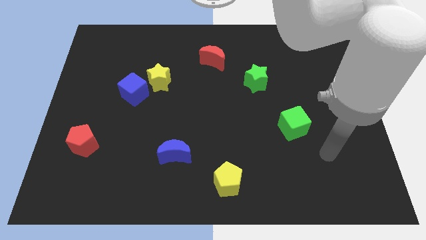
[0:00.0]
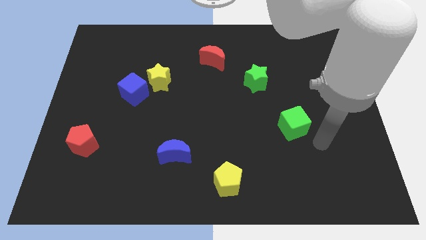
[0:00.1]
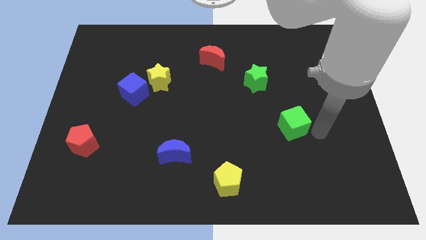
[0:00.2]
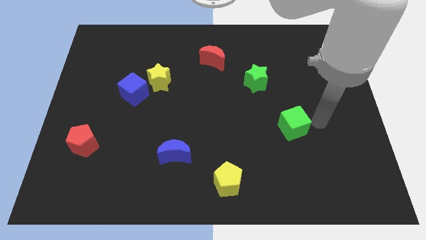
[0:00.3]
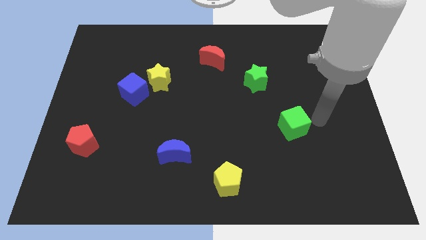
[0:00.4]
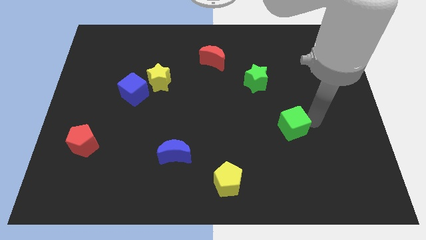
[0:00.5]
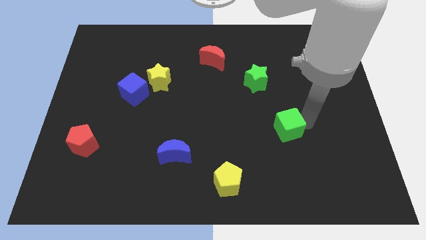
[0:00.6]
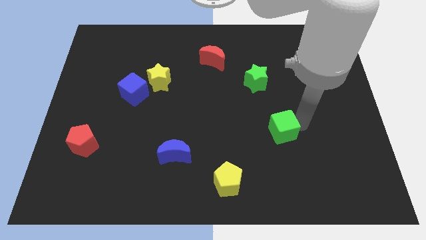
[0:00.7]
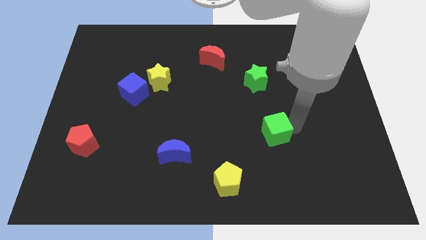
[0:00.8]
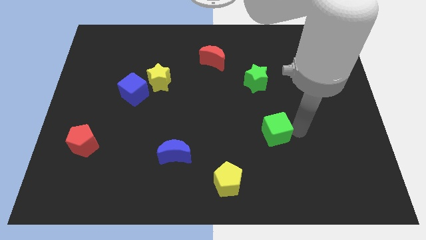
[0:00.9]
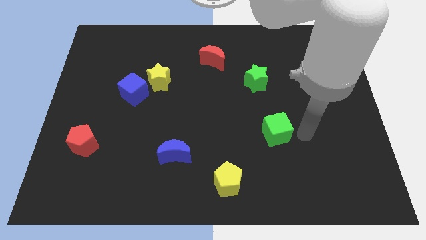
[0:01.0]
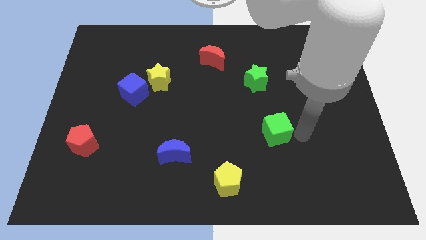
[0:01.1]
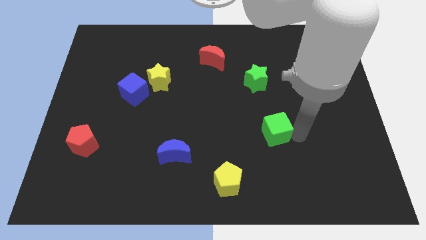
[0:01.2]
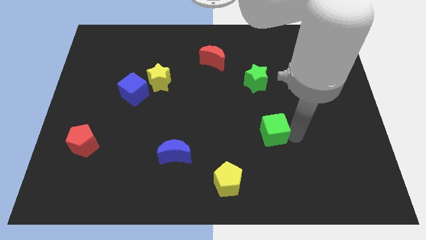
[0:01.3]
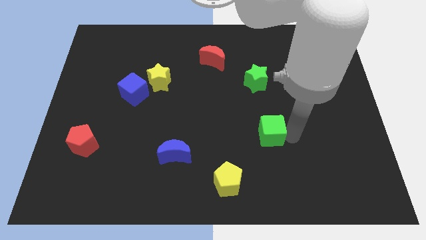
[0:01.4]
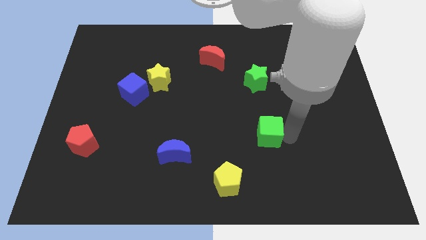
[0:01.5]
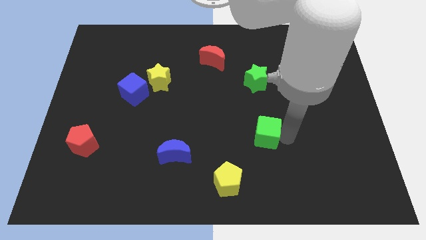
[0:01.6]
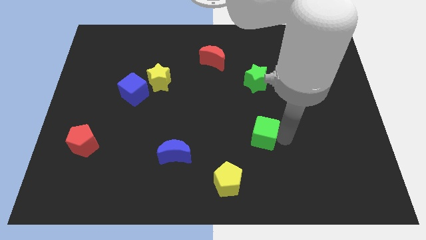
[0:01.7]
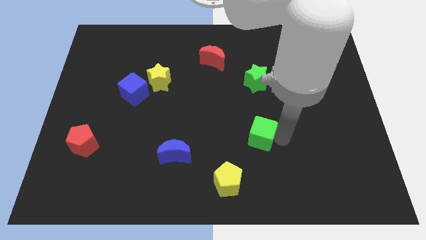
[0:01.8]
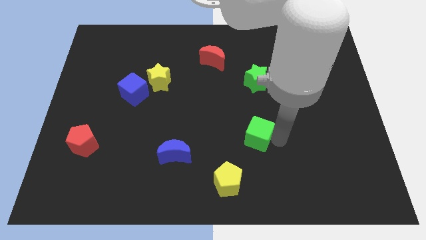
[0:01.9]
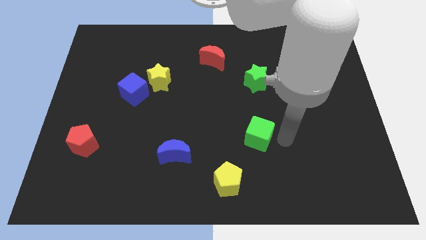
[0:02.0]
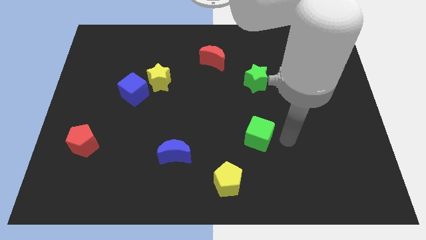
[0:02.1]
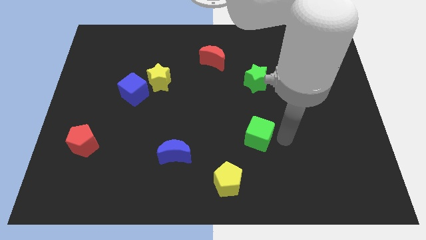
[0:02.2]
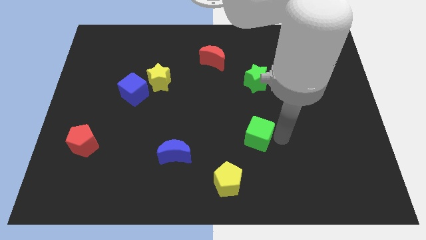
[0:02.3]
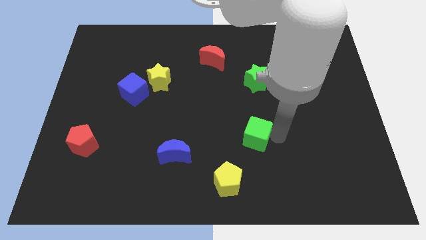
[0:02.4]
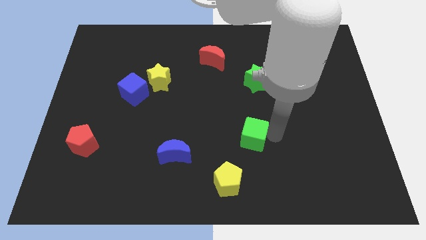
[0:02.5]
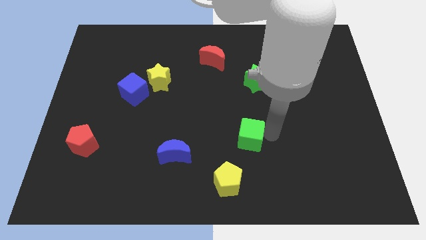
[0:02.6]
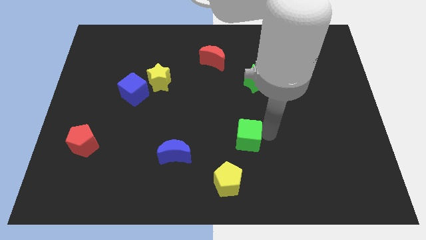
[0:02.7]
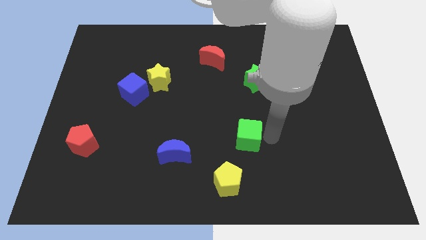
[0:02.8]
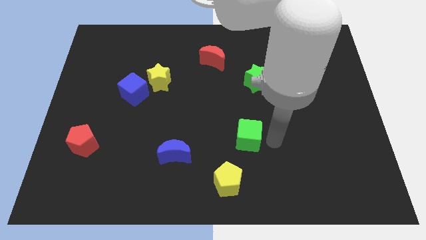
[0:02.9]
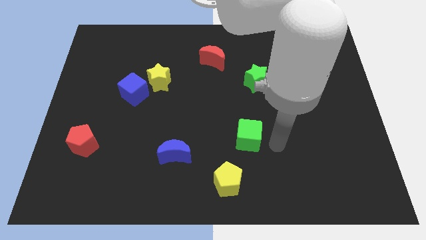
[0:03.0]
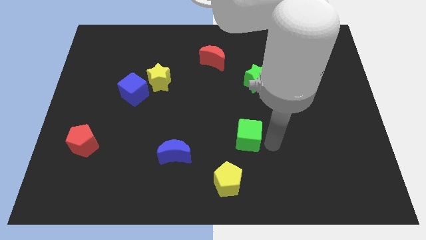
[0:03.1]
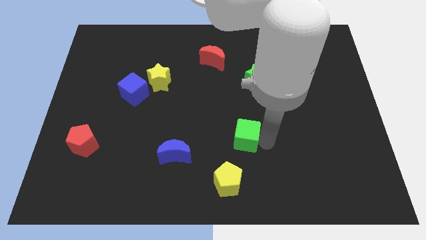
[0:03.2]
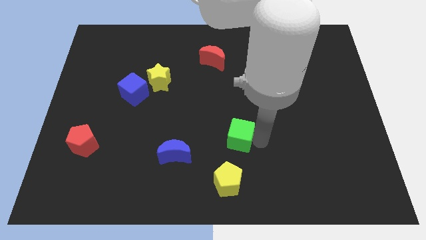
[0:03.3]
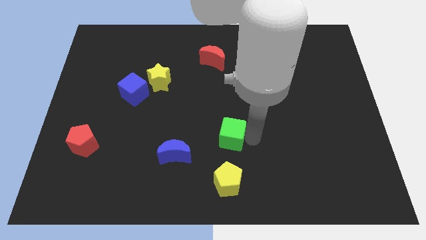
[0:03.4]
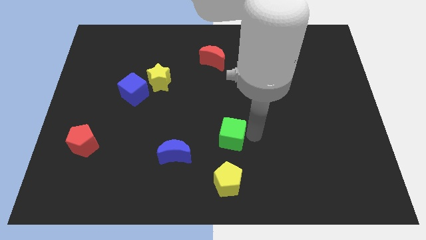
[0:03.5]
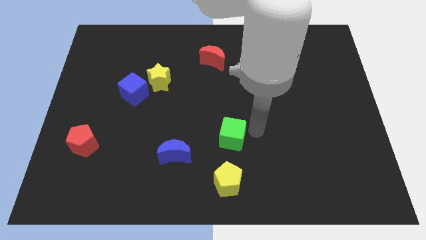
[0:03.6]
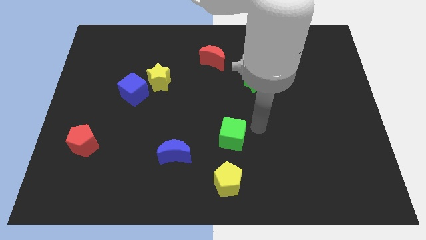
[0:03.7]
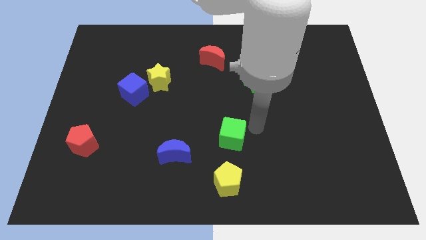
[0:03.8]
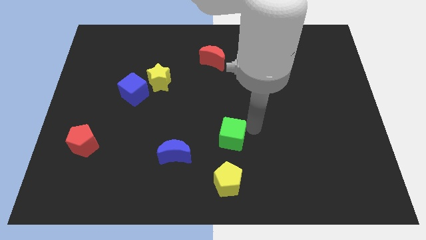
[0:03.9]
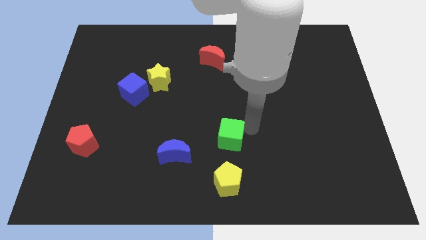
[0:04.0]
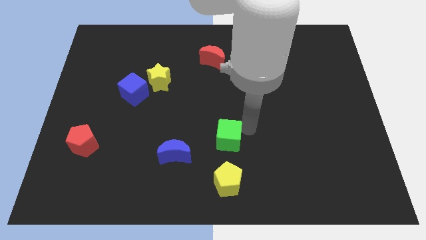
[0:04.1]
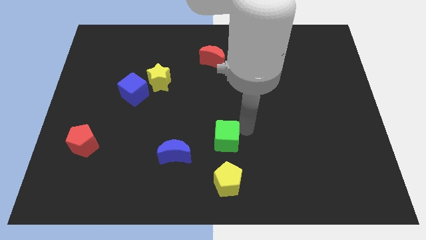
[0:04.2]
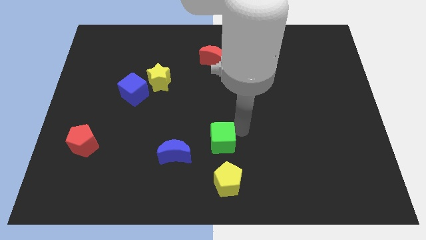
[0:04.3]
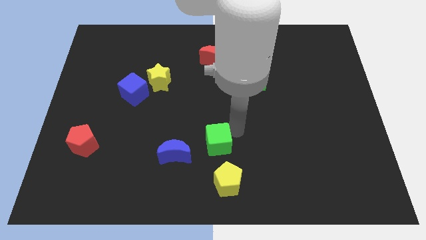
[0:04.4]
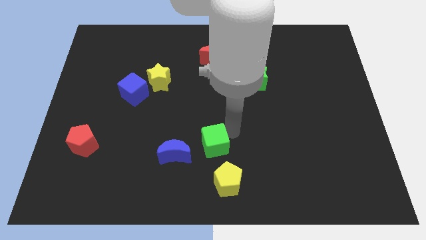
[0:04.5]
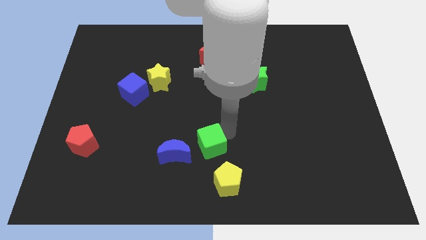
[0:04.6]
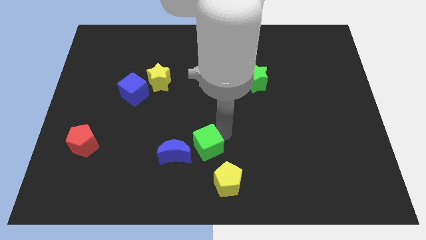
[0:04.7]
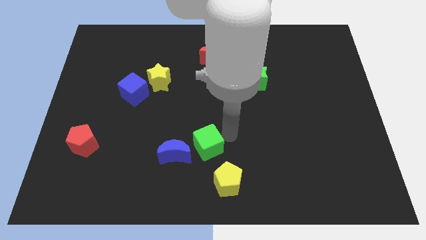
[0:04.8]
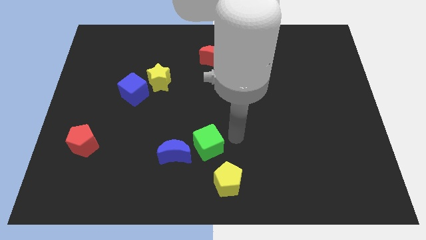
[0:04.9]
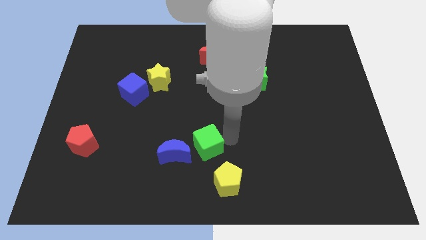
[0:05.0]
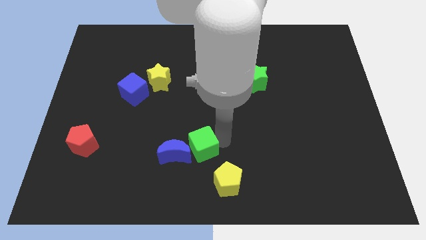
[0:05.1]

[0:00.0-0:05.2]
move the green cube close to the blue moon

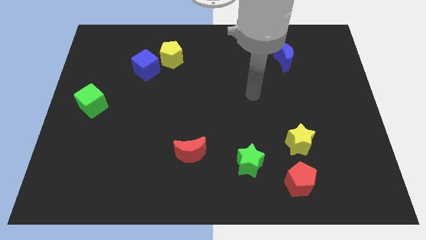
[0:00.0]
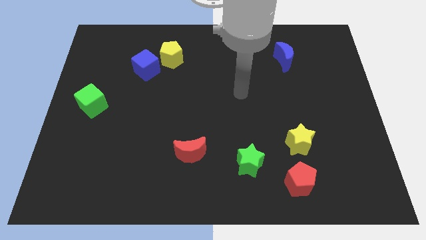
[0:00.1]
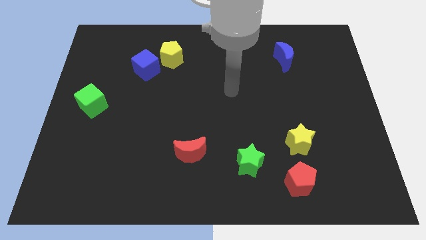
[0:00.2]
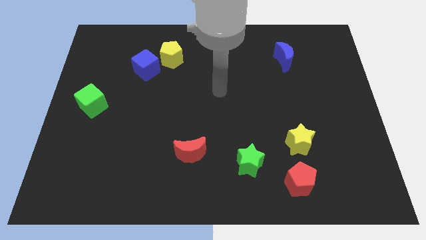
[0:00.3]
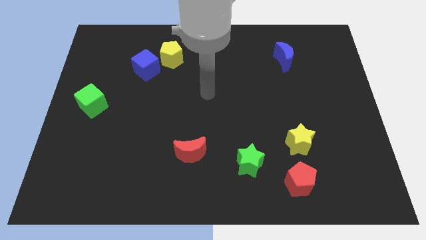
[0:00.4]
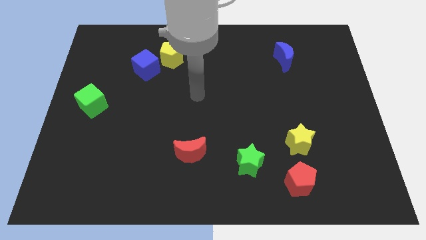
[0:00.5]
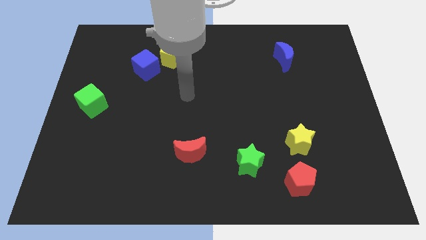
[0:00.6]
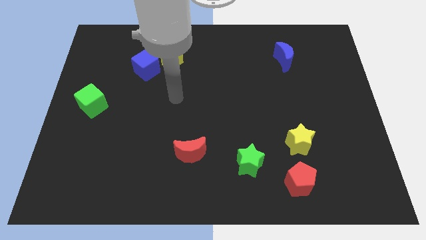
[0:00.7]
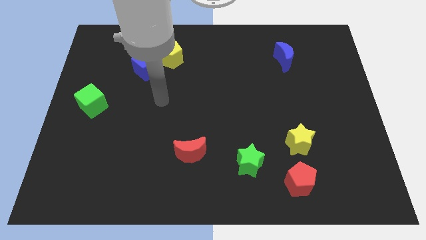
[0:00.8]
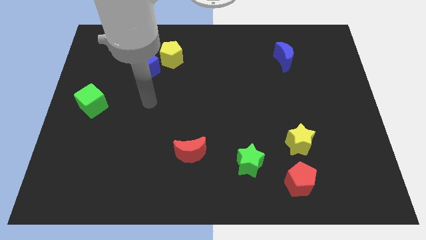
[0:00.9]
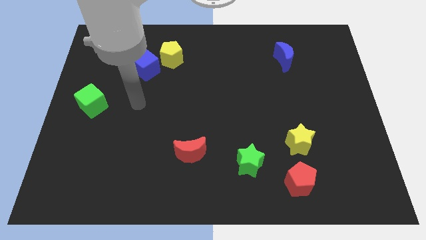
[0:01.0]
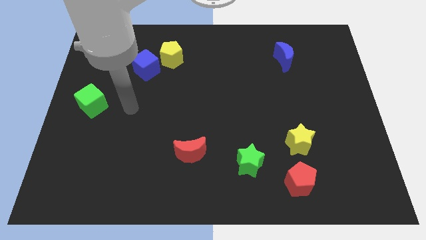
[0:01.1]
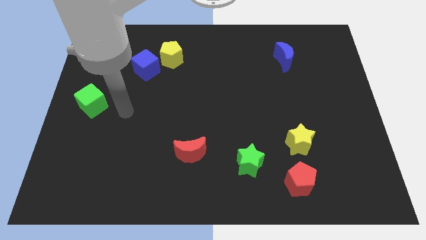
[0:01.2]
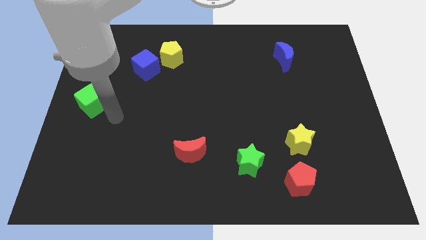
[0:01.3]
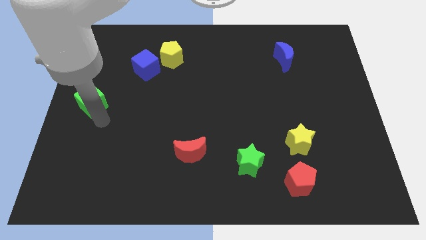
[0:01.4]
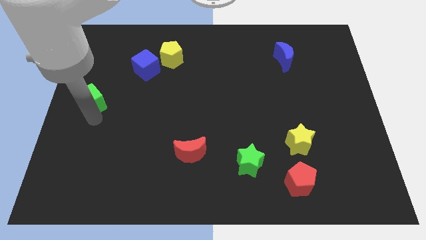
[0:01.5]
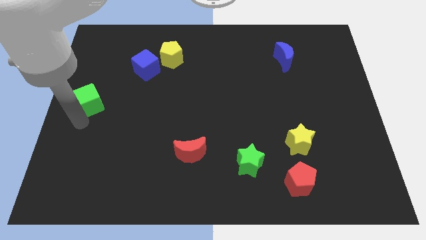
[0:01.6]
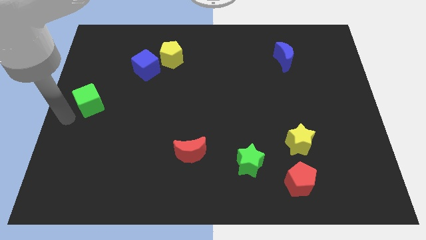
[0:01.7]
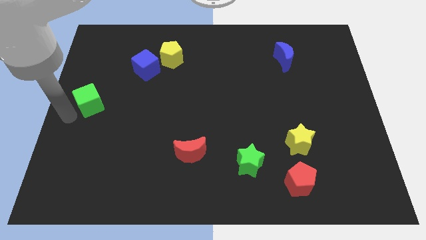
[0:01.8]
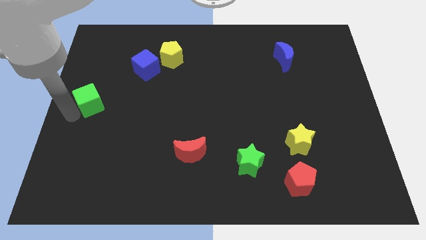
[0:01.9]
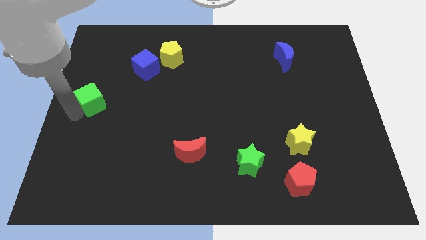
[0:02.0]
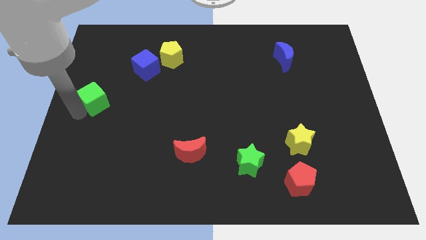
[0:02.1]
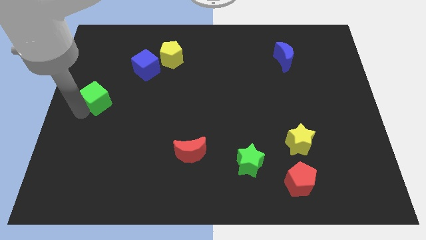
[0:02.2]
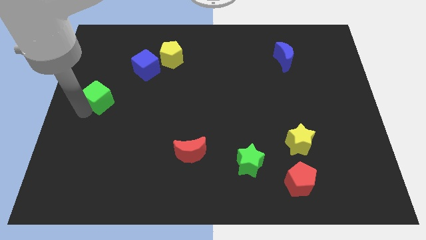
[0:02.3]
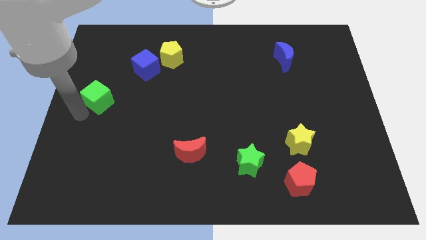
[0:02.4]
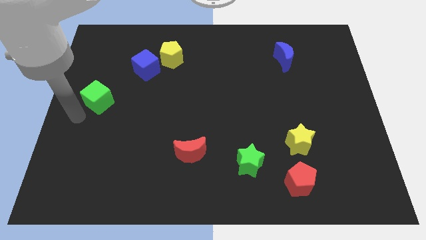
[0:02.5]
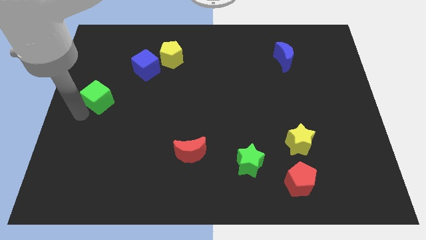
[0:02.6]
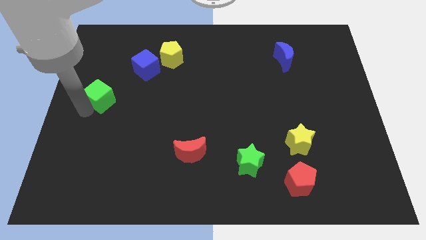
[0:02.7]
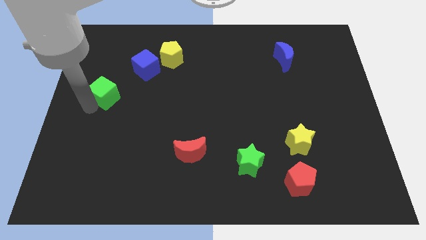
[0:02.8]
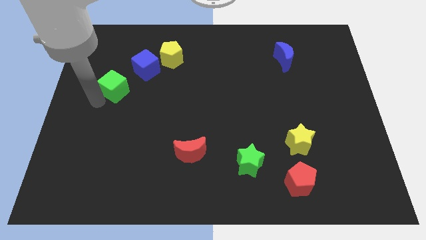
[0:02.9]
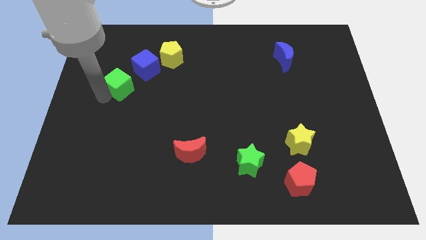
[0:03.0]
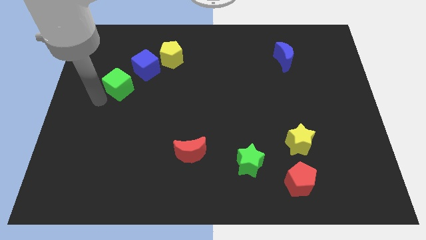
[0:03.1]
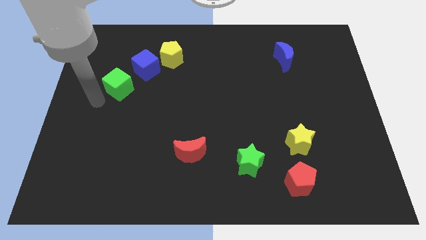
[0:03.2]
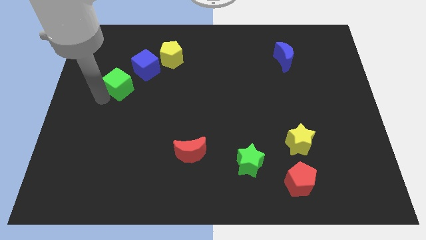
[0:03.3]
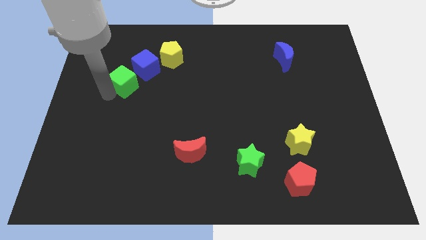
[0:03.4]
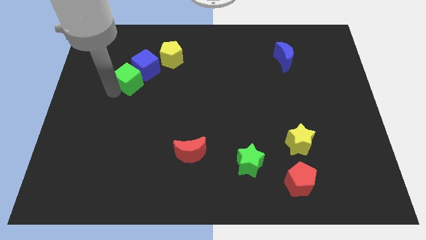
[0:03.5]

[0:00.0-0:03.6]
move the green cube towards the blue cube
